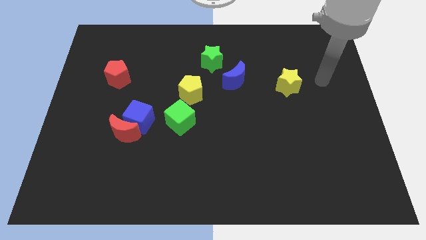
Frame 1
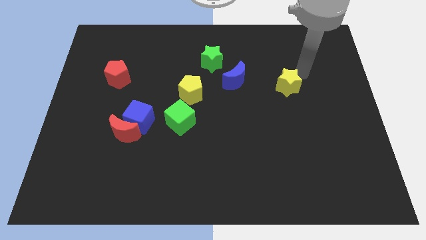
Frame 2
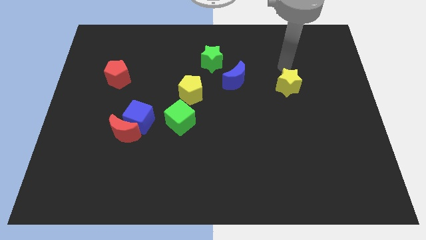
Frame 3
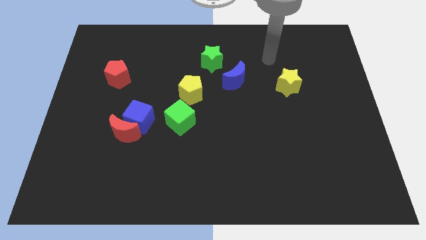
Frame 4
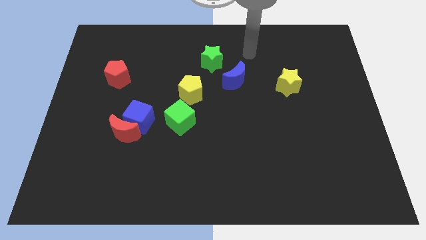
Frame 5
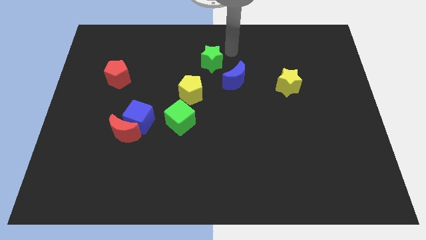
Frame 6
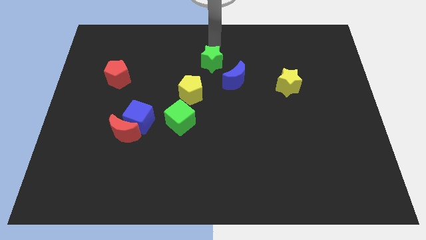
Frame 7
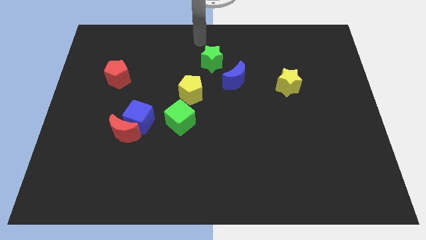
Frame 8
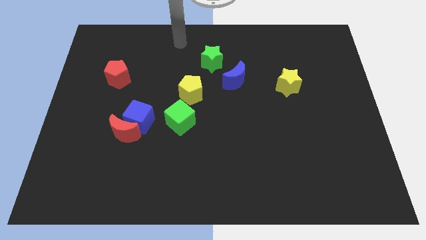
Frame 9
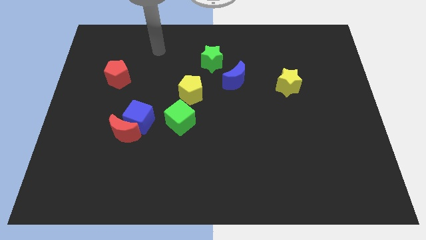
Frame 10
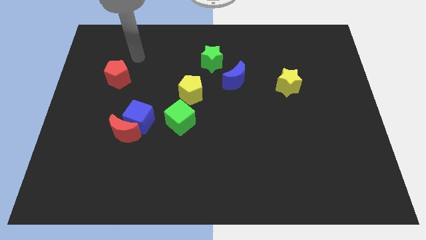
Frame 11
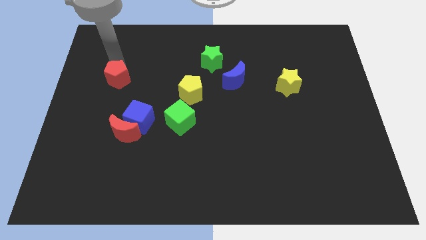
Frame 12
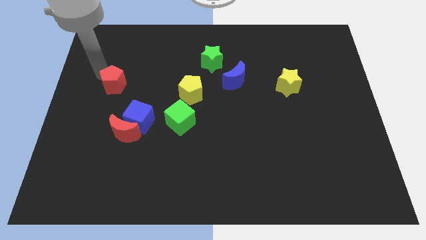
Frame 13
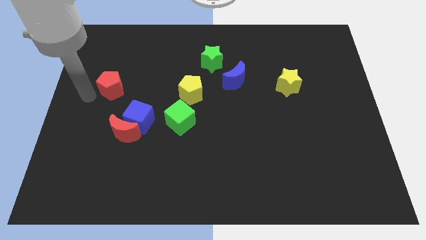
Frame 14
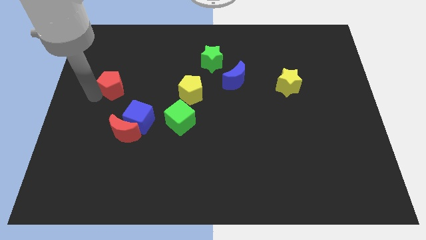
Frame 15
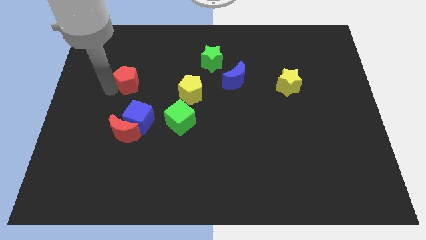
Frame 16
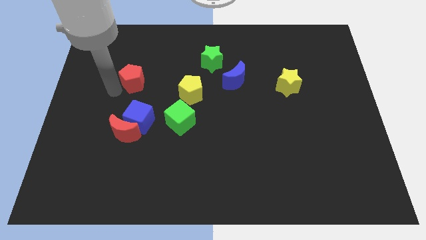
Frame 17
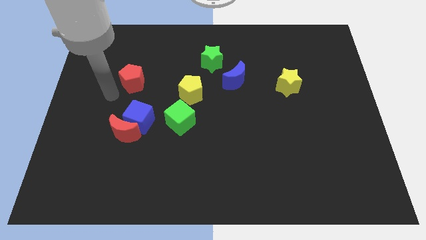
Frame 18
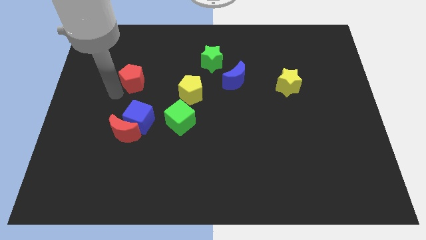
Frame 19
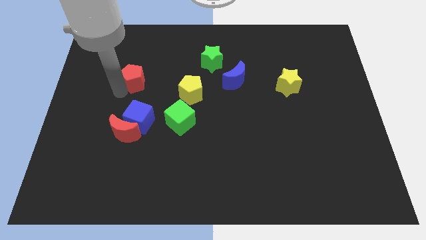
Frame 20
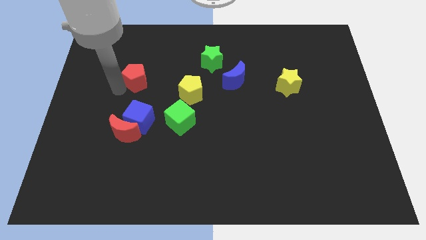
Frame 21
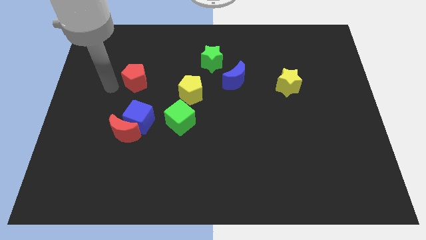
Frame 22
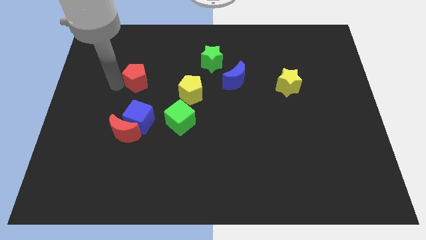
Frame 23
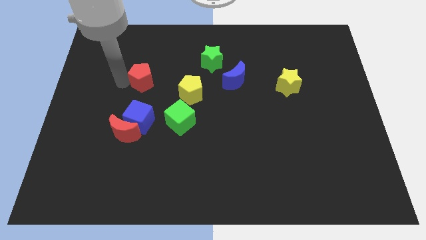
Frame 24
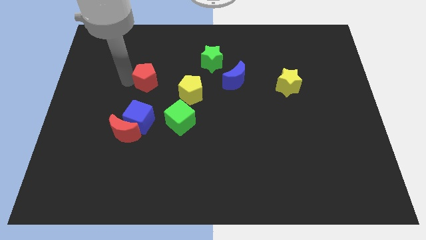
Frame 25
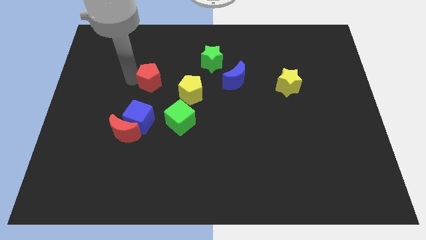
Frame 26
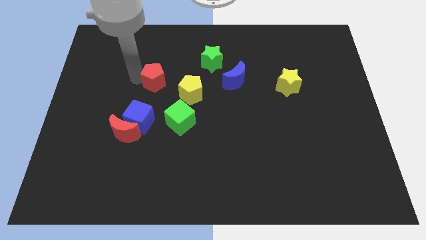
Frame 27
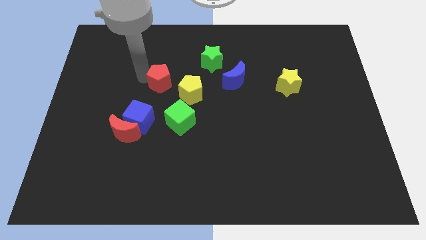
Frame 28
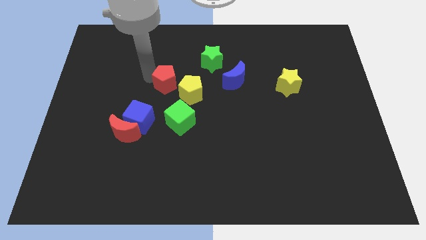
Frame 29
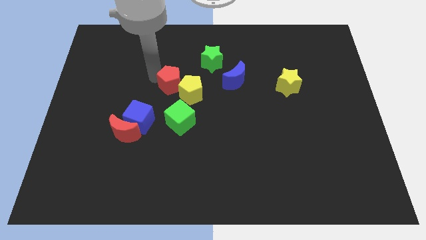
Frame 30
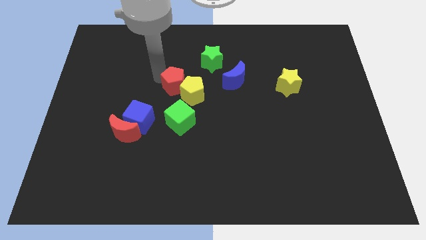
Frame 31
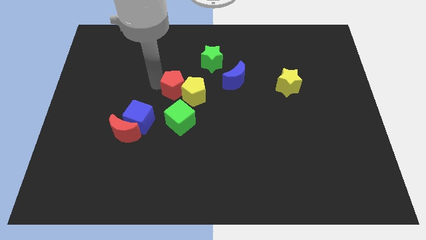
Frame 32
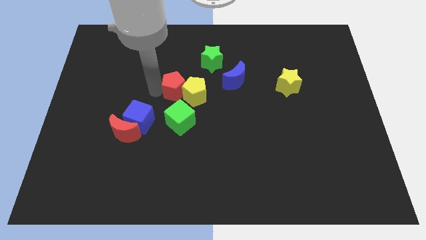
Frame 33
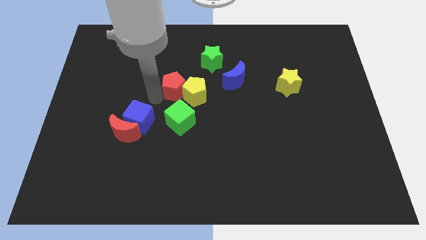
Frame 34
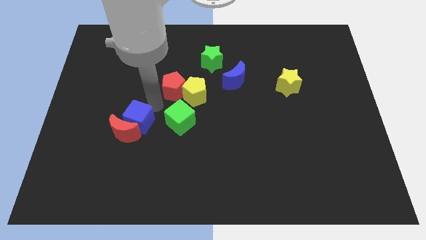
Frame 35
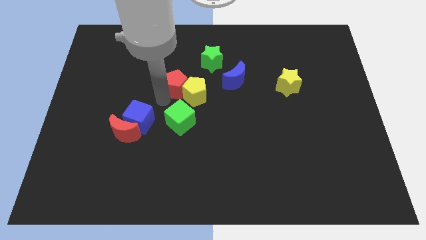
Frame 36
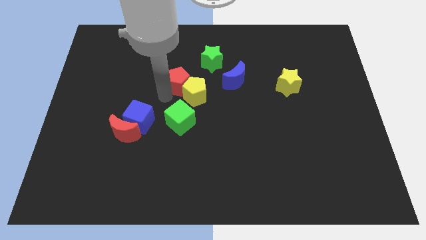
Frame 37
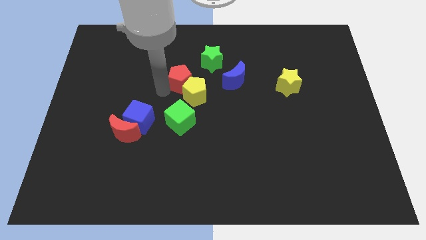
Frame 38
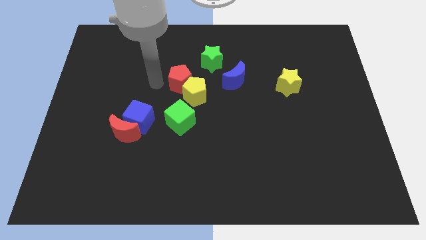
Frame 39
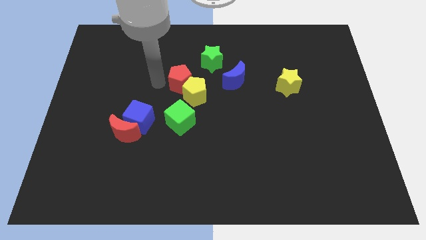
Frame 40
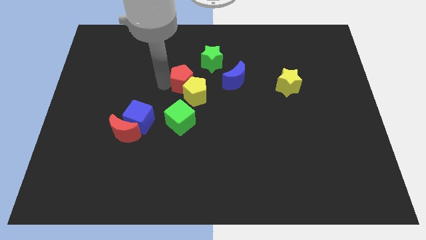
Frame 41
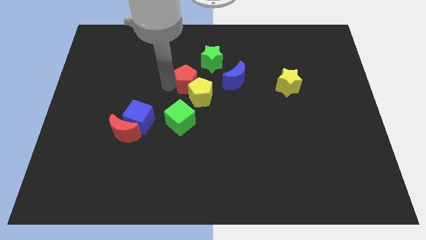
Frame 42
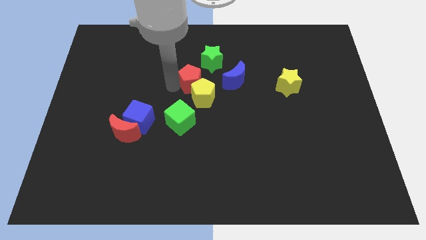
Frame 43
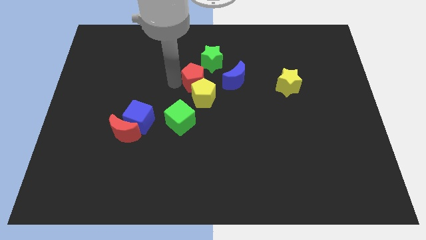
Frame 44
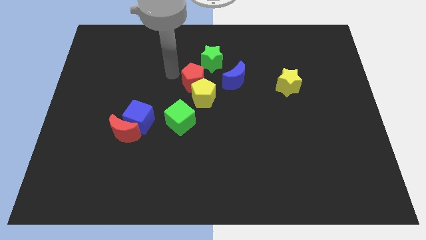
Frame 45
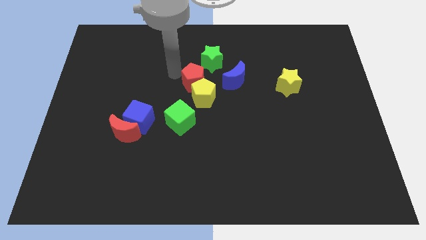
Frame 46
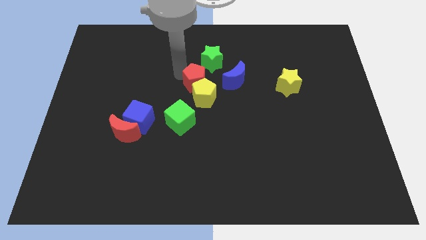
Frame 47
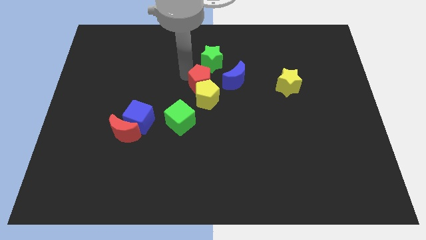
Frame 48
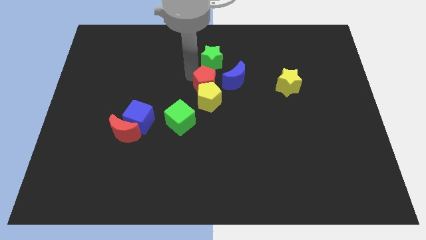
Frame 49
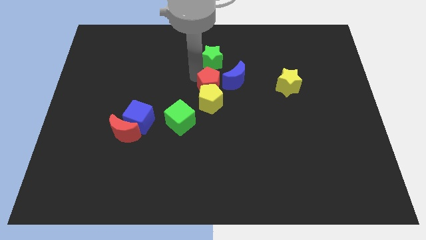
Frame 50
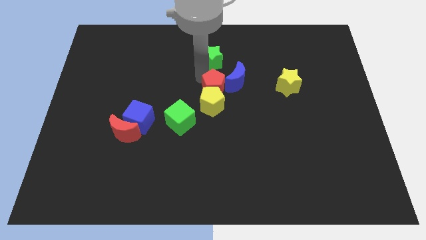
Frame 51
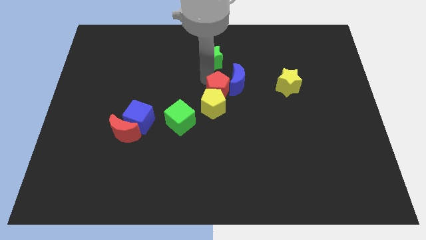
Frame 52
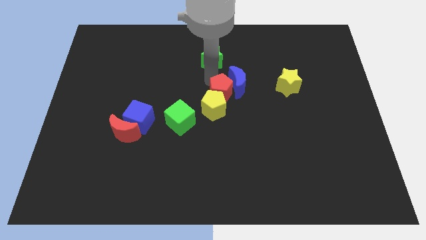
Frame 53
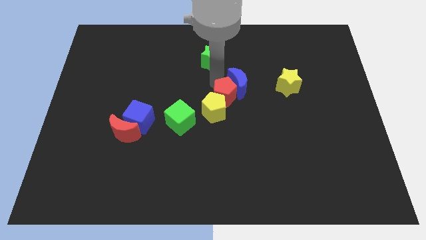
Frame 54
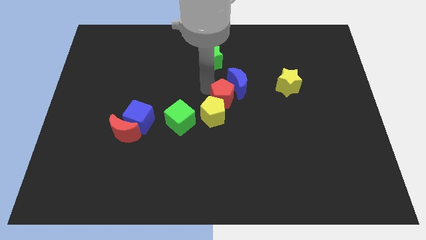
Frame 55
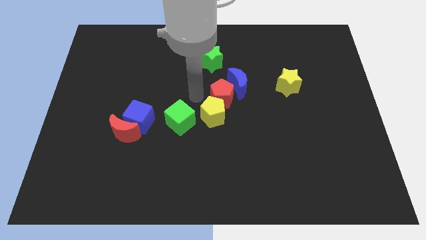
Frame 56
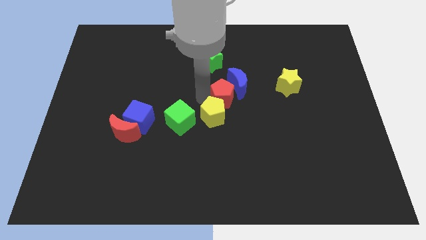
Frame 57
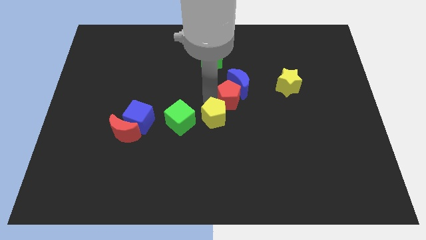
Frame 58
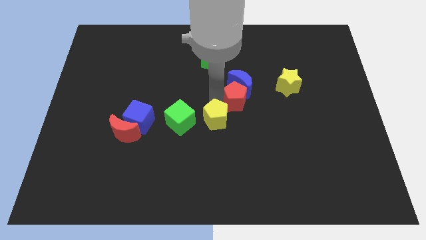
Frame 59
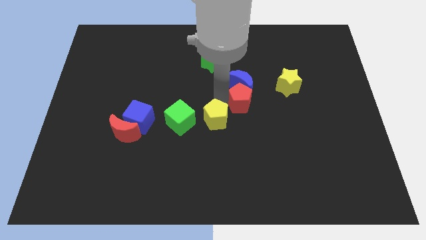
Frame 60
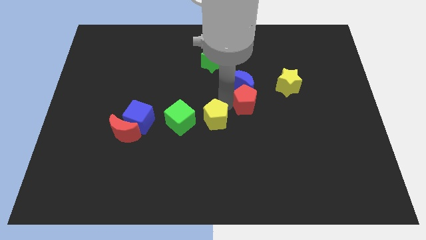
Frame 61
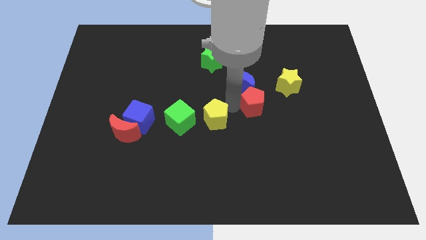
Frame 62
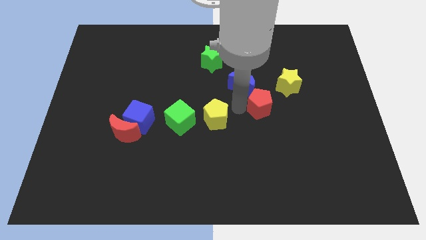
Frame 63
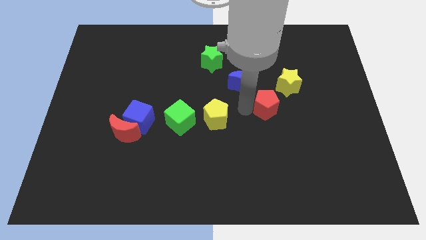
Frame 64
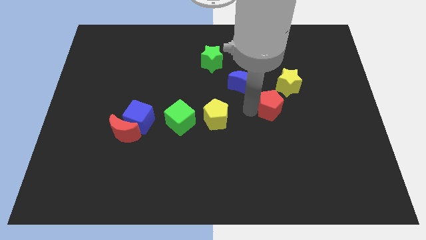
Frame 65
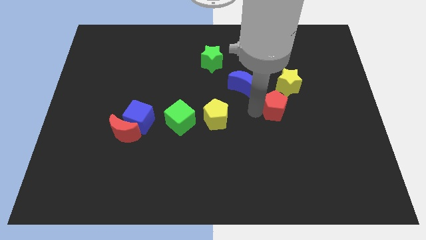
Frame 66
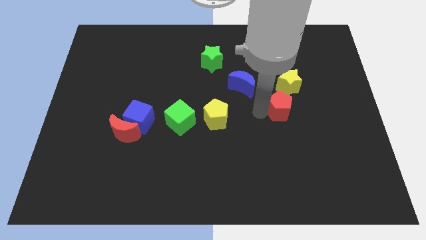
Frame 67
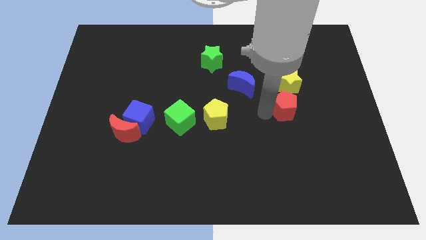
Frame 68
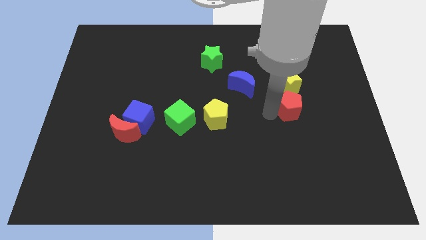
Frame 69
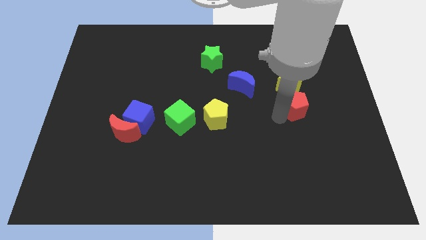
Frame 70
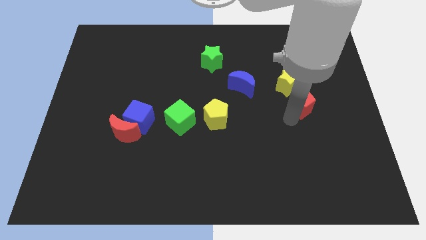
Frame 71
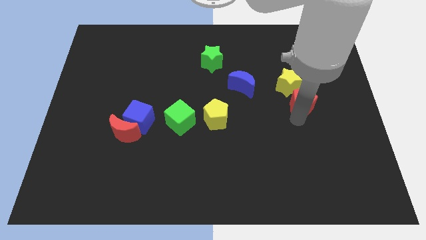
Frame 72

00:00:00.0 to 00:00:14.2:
move the red pentagon to the yellow star

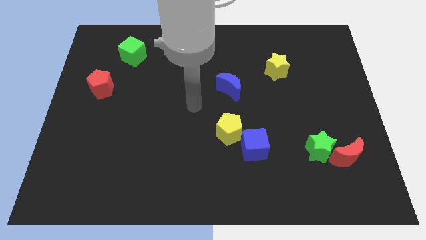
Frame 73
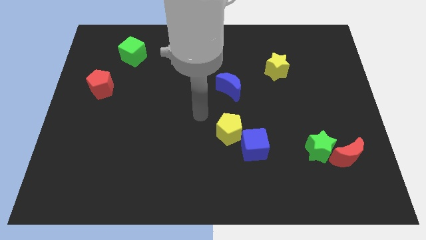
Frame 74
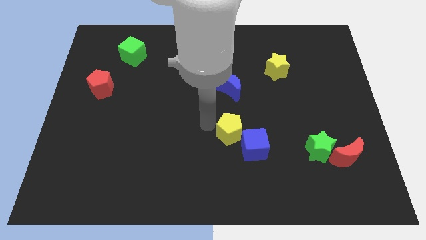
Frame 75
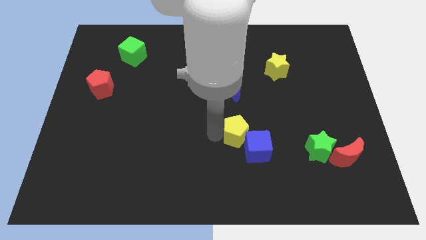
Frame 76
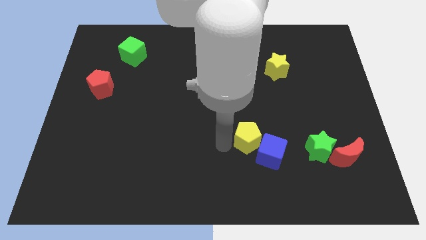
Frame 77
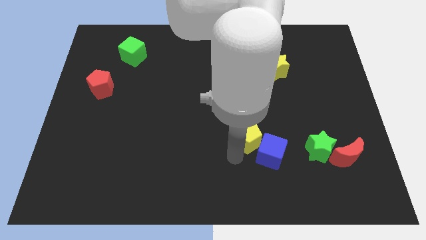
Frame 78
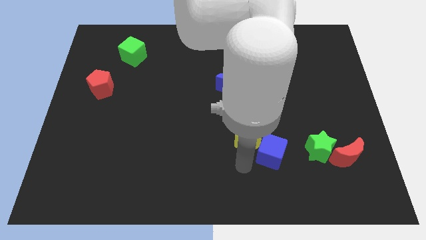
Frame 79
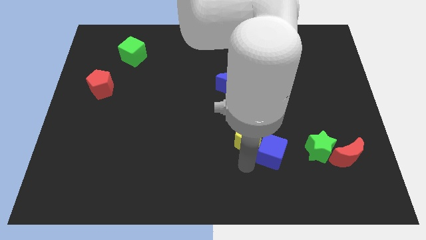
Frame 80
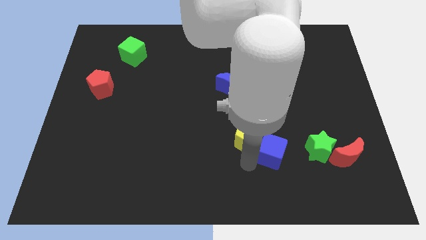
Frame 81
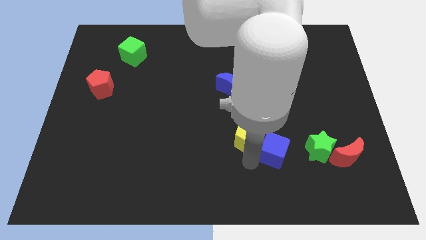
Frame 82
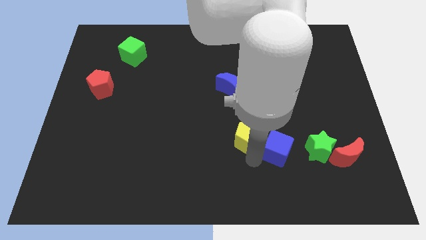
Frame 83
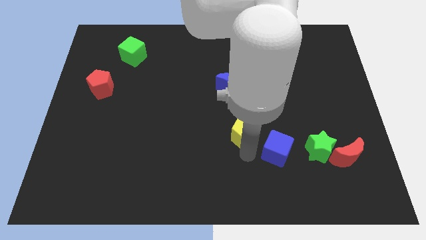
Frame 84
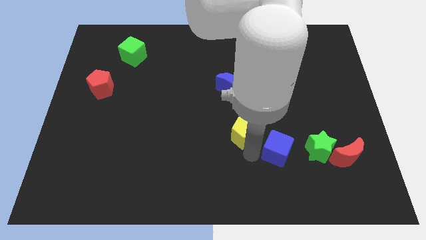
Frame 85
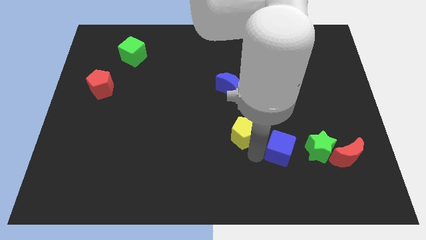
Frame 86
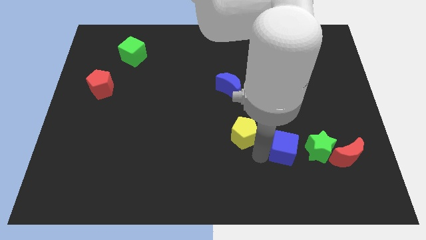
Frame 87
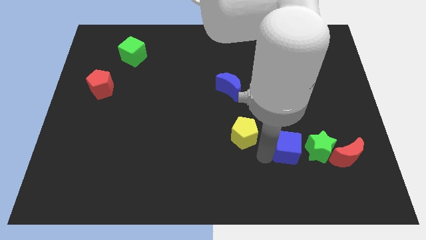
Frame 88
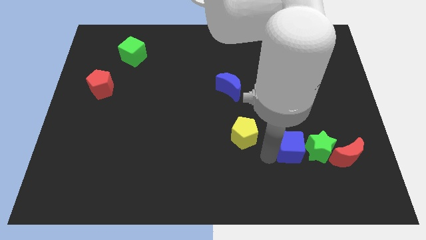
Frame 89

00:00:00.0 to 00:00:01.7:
push the blue cube to the green star
